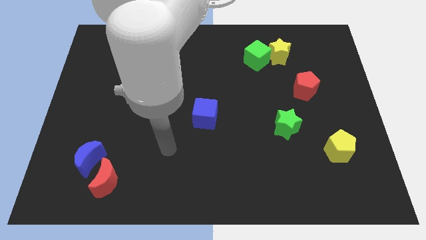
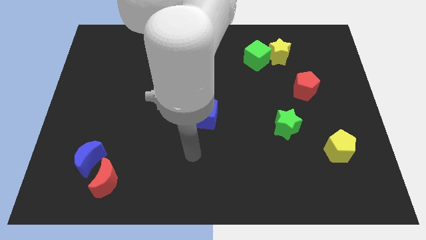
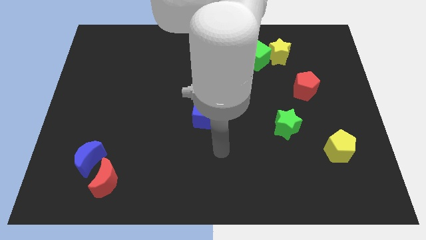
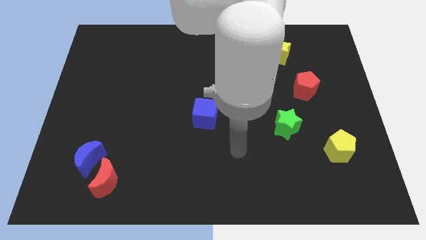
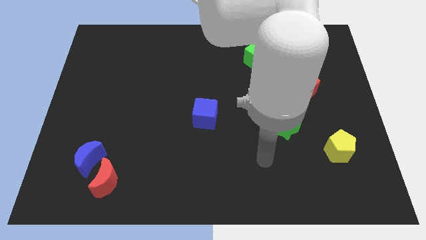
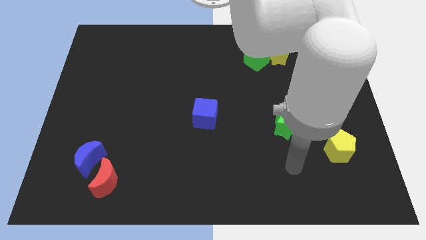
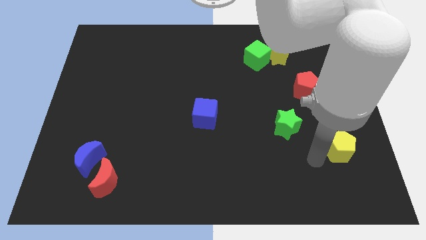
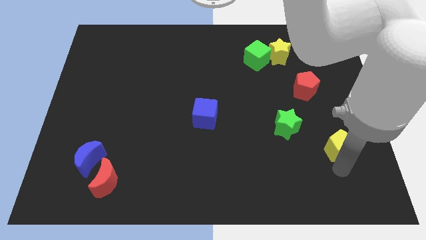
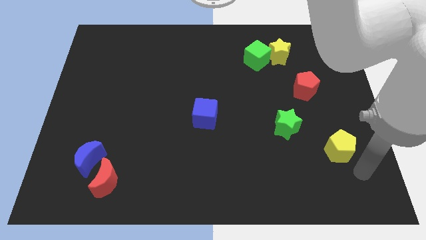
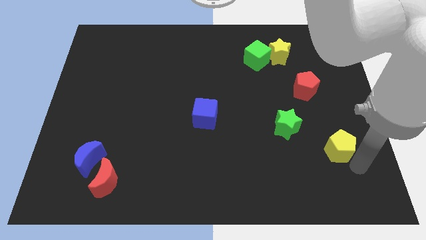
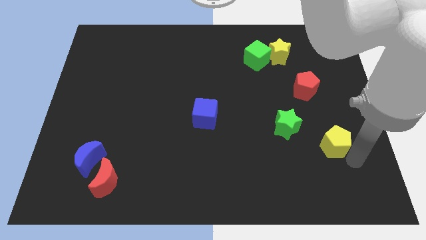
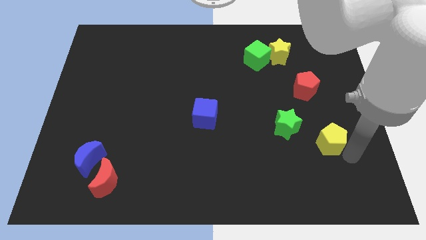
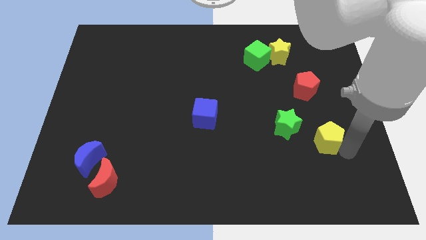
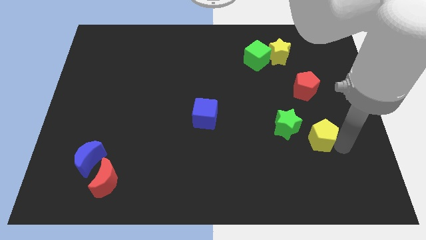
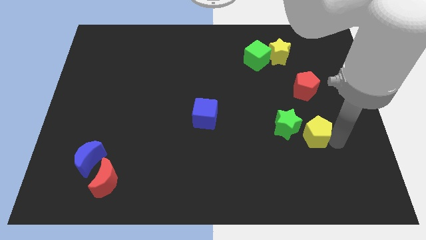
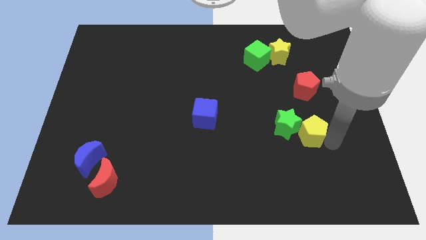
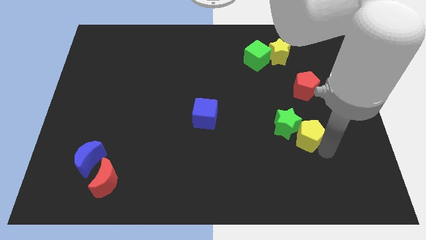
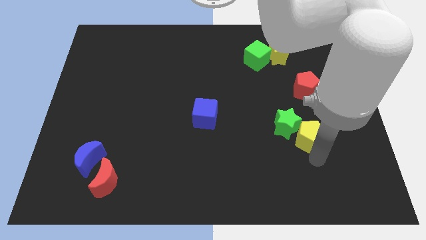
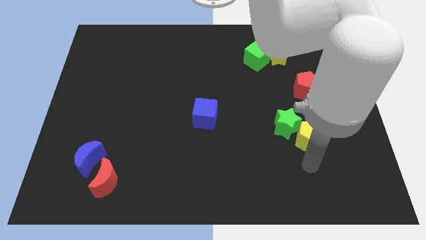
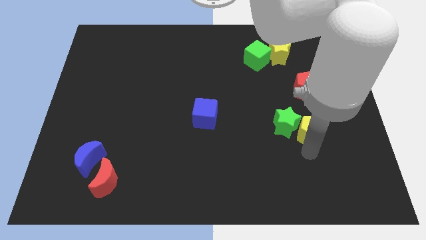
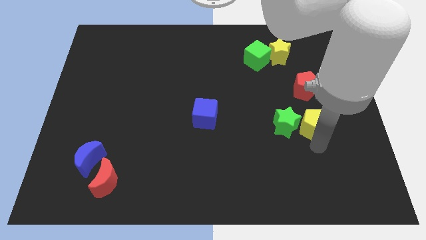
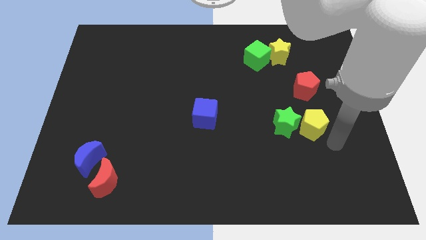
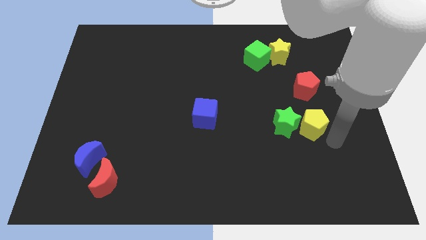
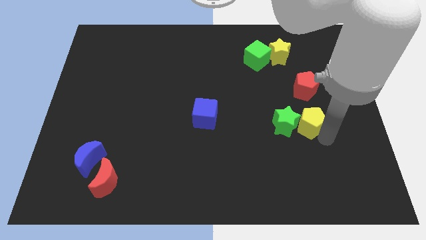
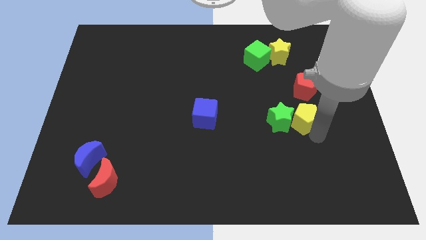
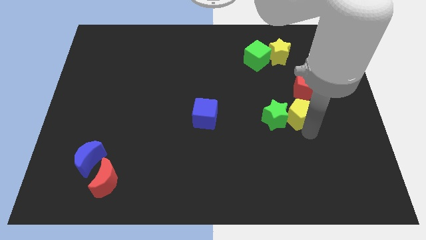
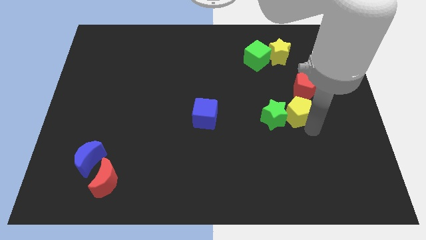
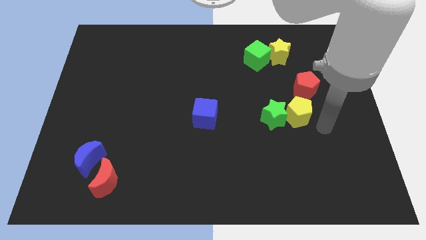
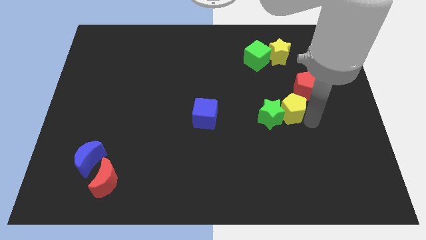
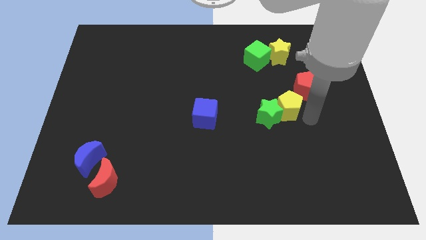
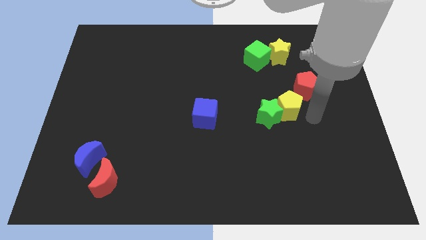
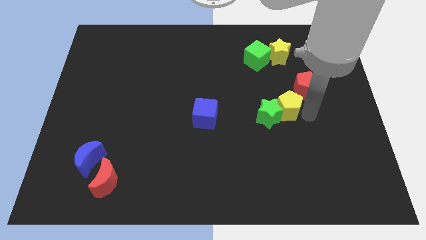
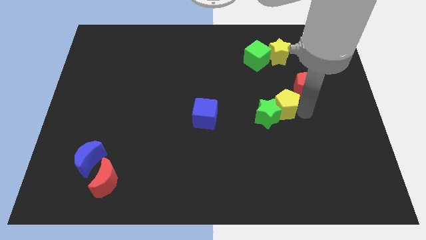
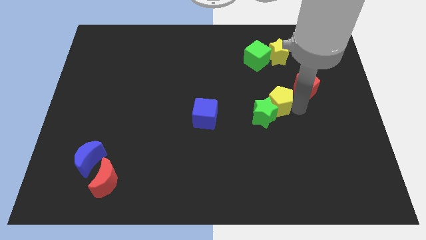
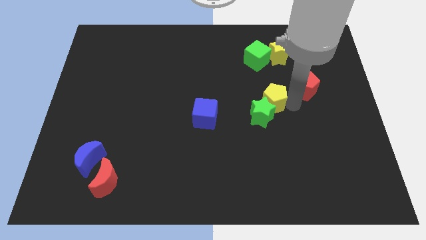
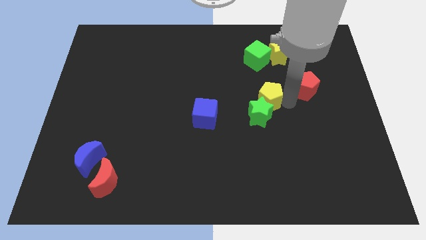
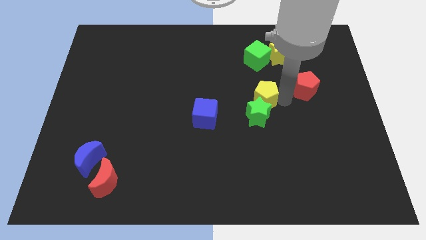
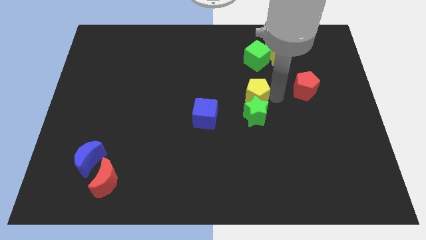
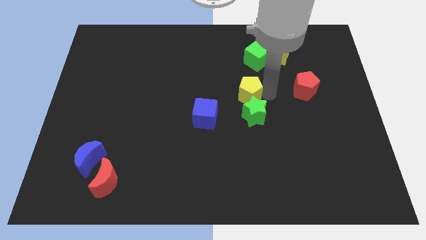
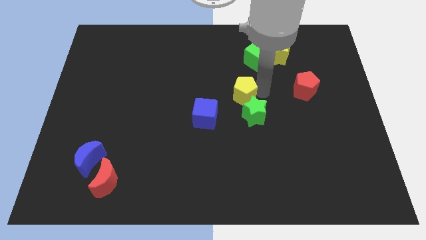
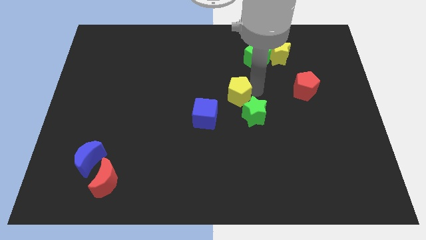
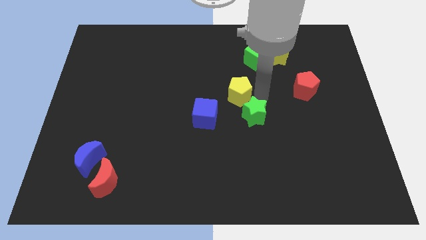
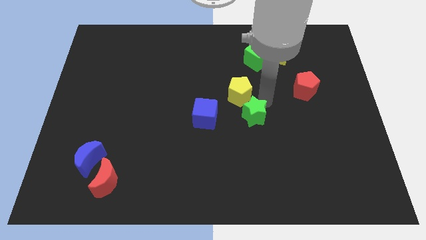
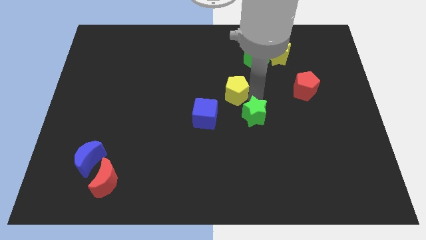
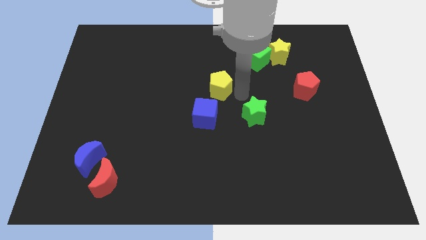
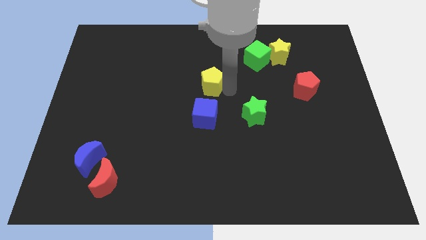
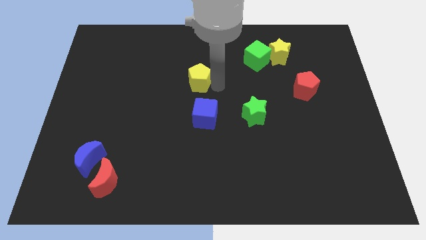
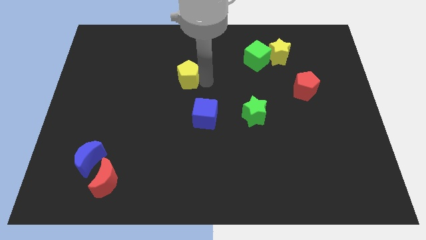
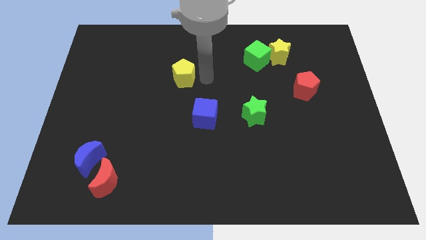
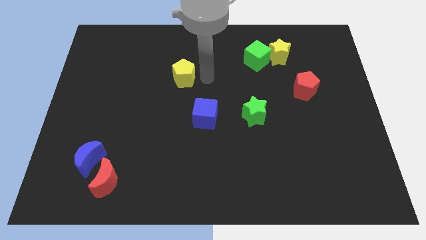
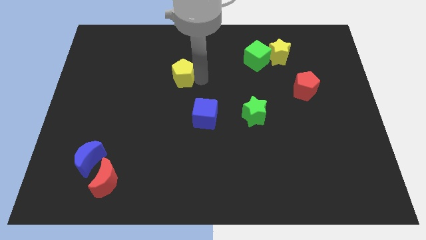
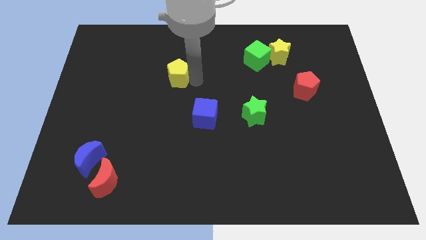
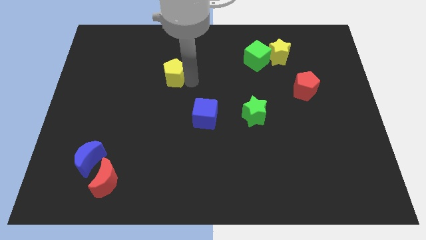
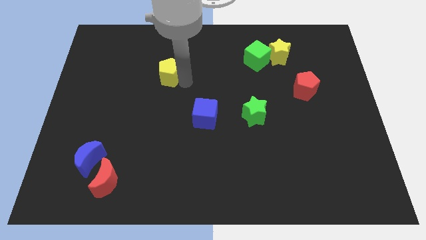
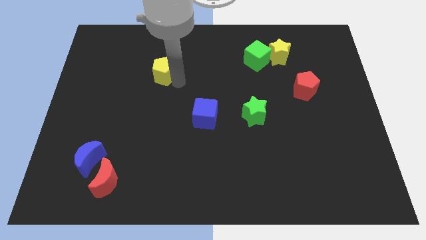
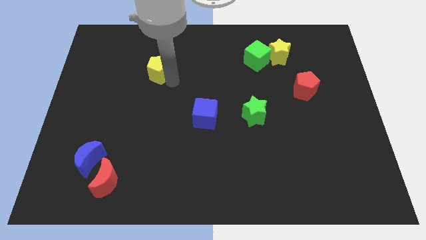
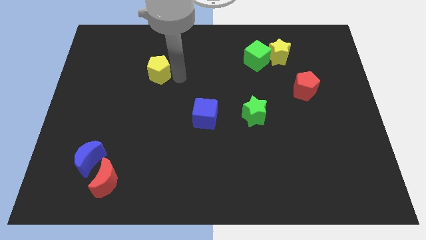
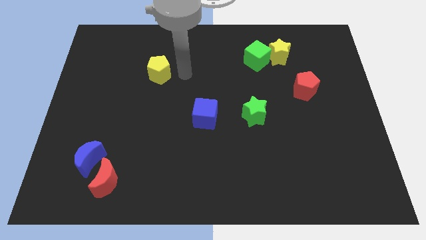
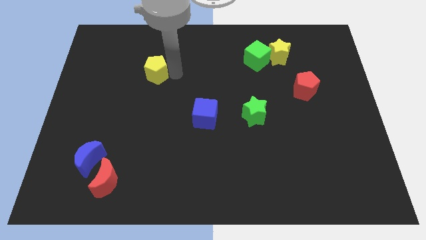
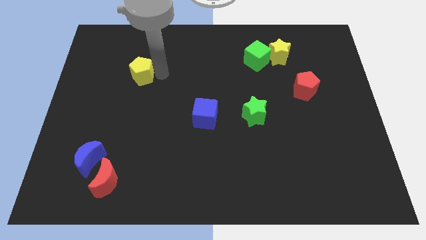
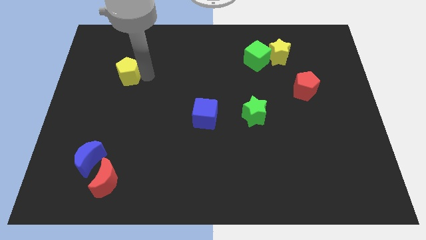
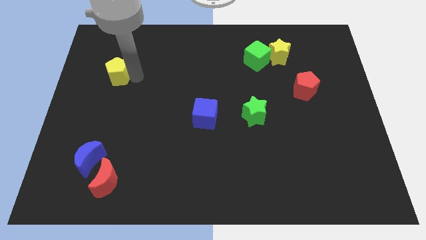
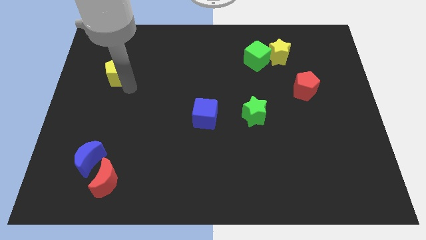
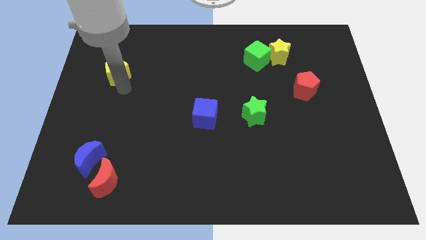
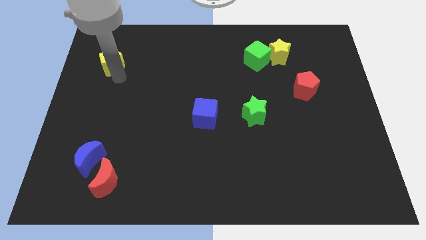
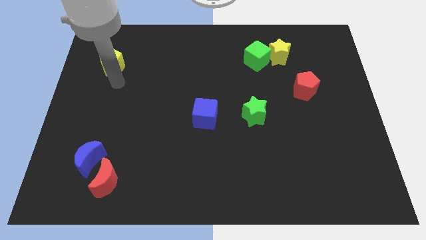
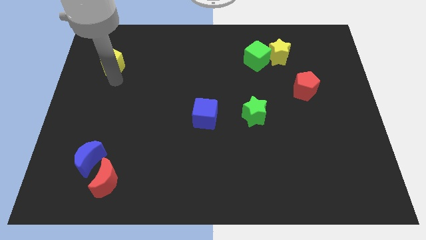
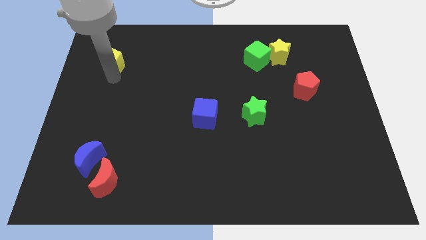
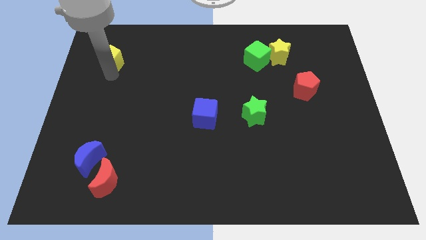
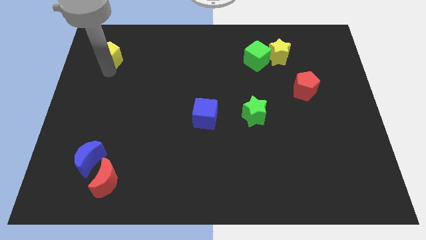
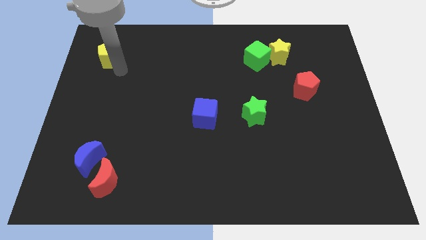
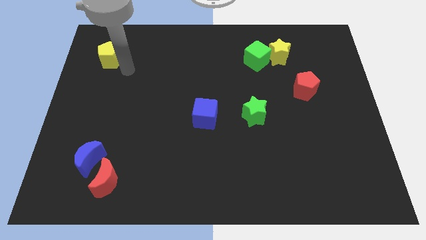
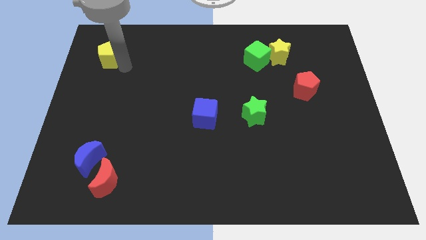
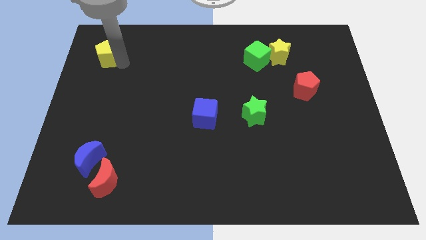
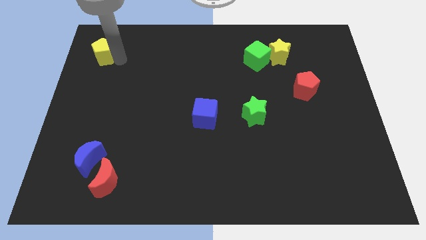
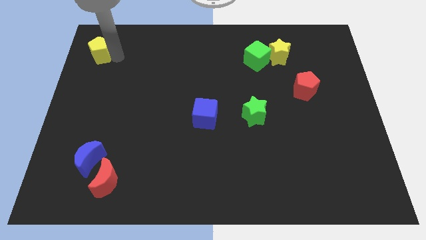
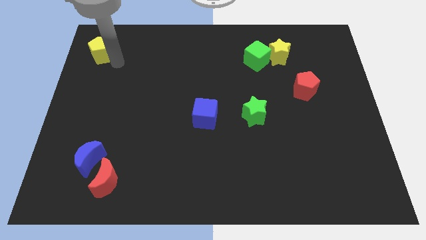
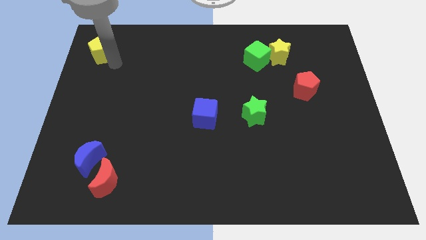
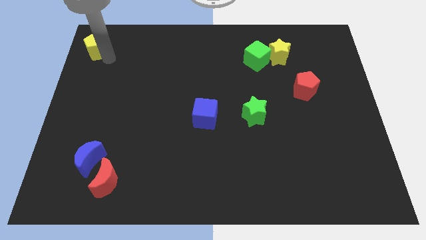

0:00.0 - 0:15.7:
slide the yellow pentagon to the upper left corner
